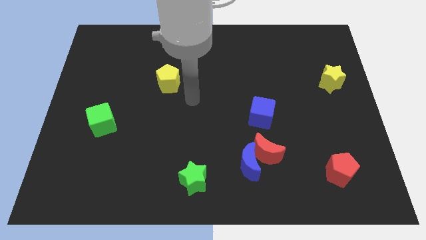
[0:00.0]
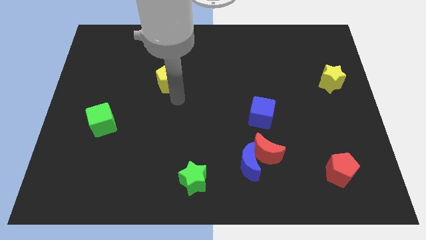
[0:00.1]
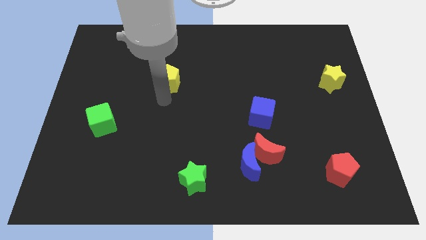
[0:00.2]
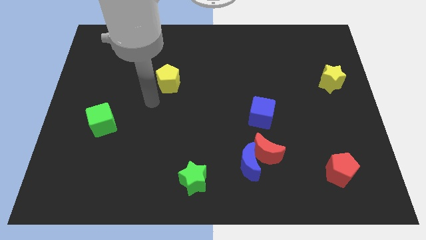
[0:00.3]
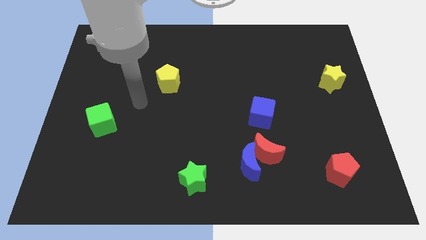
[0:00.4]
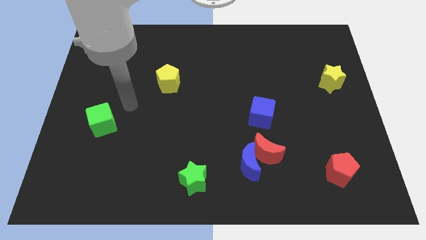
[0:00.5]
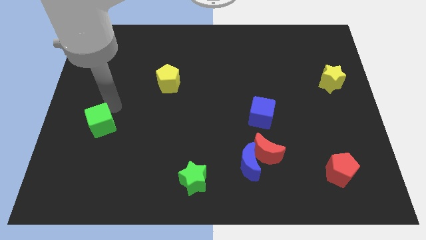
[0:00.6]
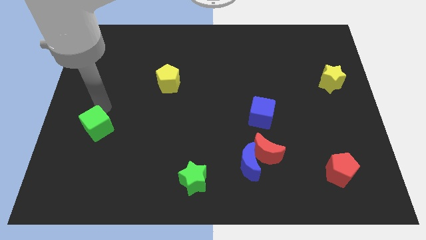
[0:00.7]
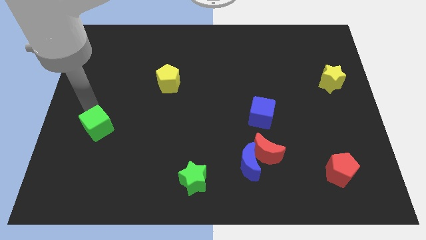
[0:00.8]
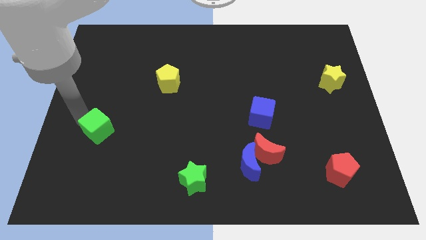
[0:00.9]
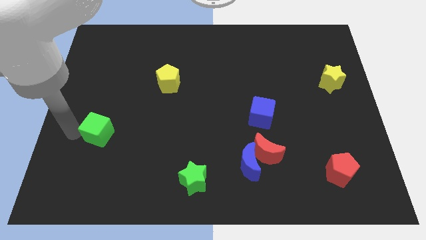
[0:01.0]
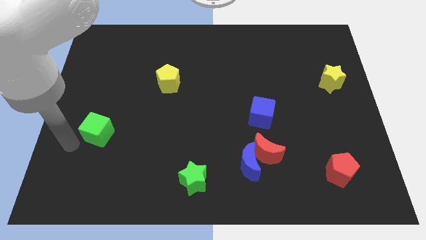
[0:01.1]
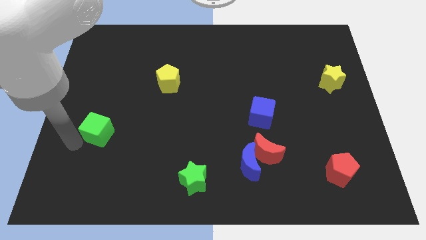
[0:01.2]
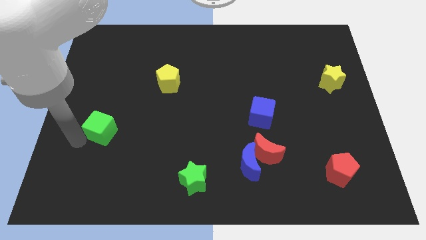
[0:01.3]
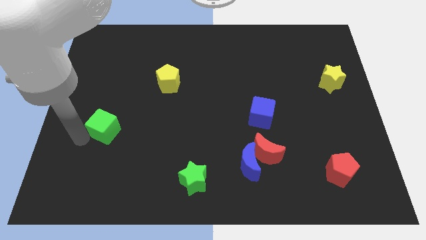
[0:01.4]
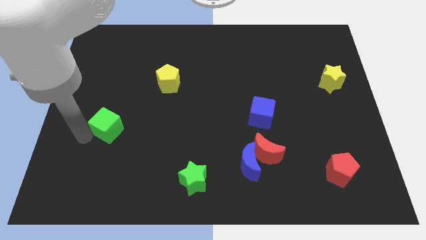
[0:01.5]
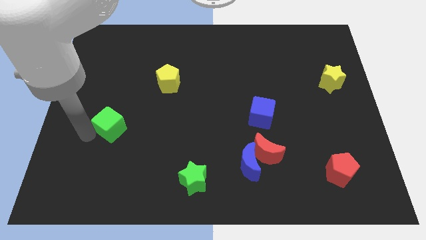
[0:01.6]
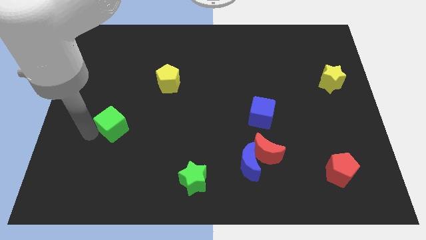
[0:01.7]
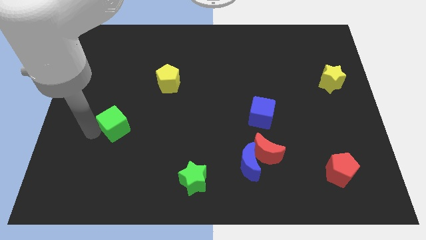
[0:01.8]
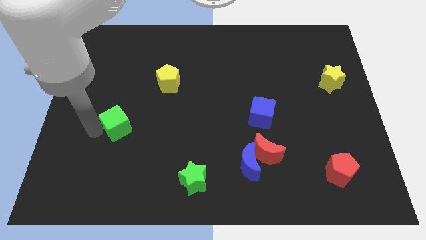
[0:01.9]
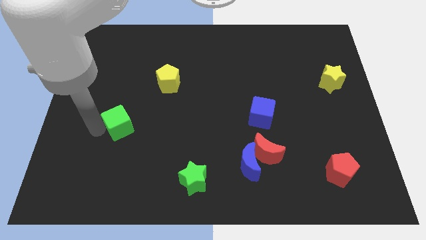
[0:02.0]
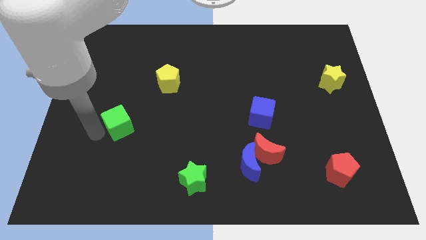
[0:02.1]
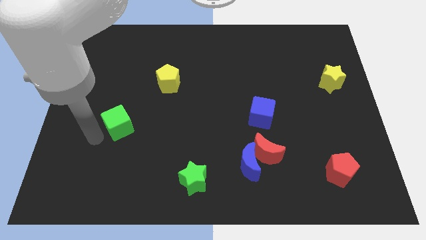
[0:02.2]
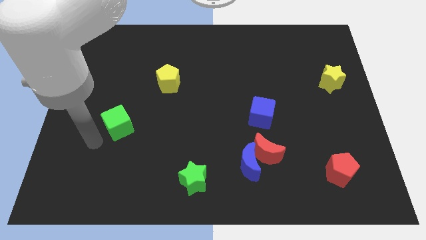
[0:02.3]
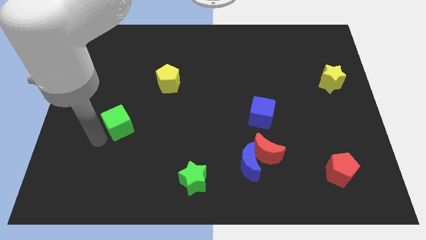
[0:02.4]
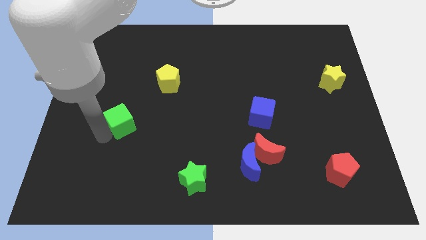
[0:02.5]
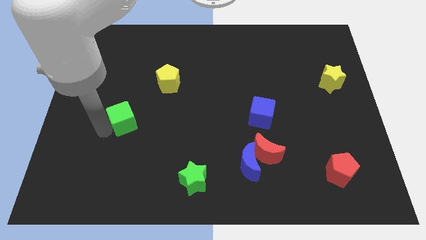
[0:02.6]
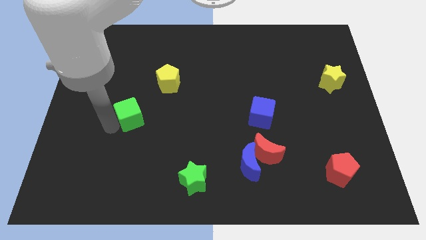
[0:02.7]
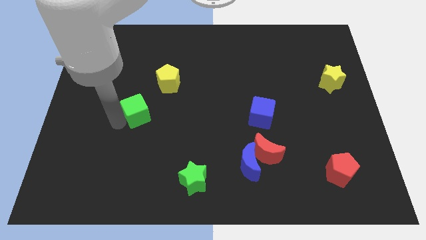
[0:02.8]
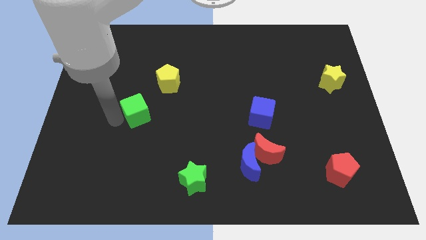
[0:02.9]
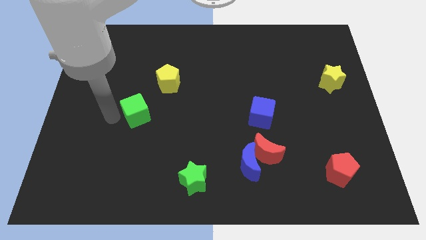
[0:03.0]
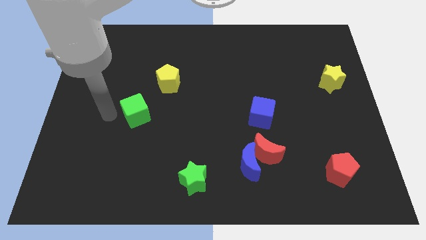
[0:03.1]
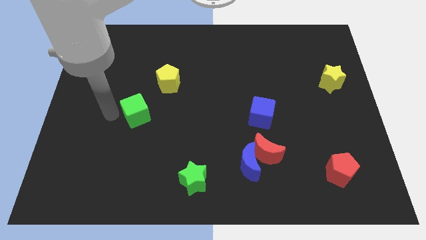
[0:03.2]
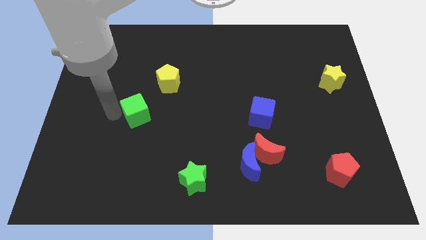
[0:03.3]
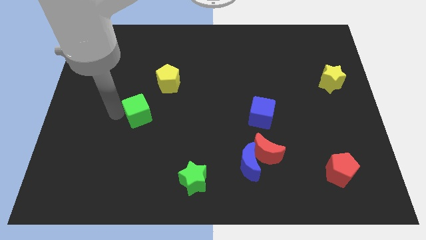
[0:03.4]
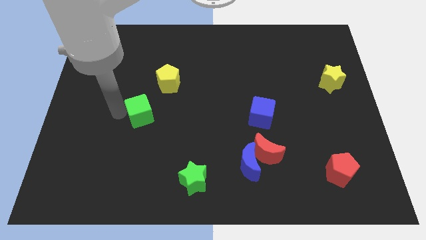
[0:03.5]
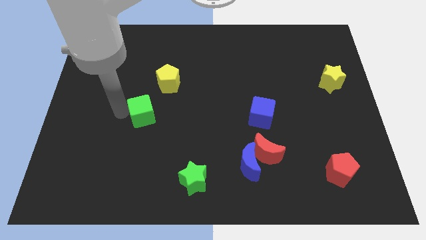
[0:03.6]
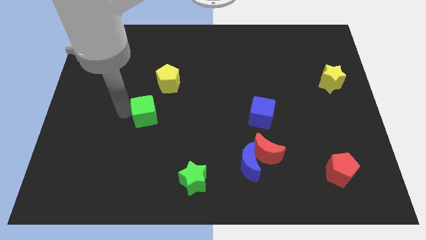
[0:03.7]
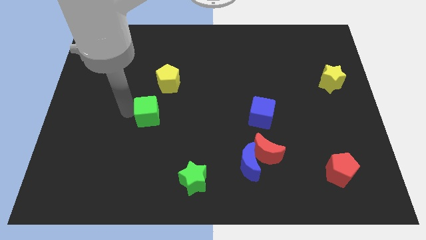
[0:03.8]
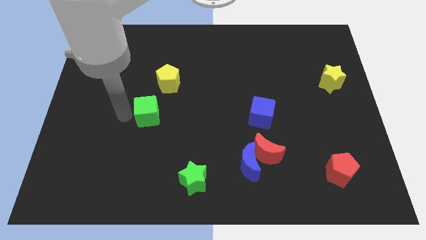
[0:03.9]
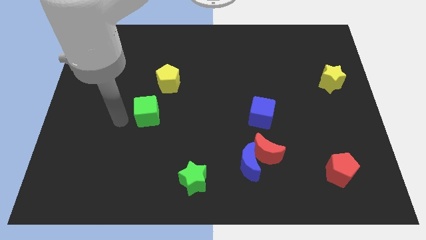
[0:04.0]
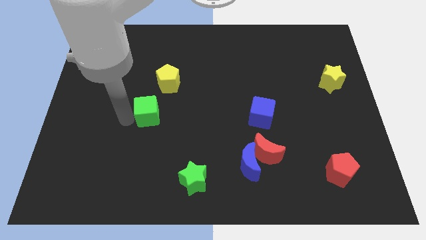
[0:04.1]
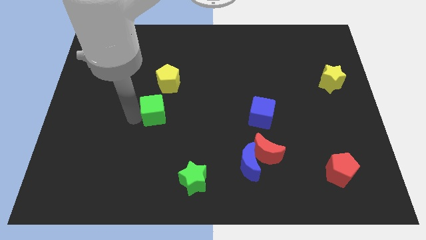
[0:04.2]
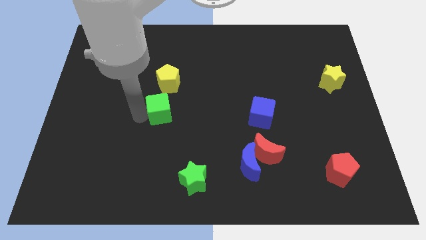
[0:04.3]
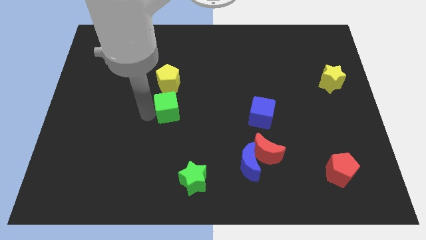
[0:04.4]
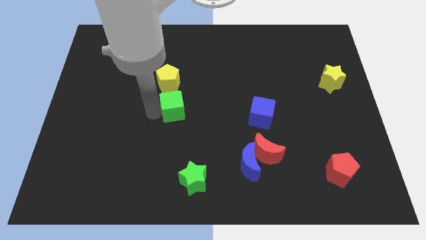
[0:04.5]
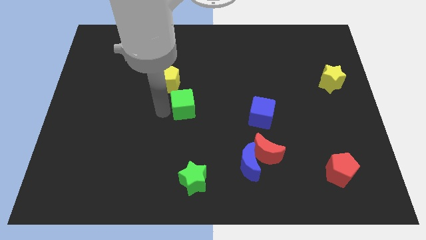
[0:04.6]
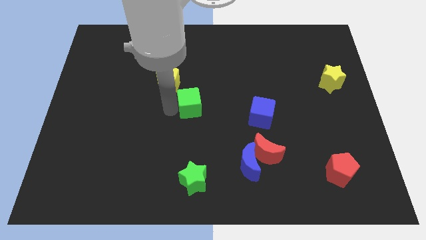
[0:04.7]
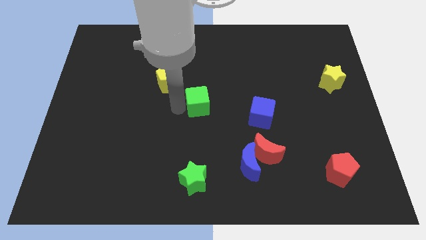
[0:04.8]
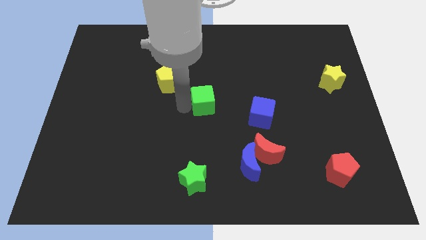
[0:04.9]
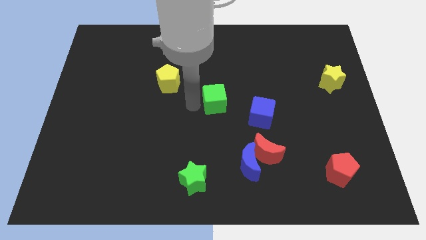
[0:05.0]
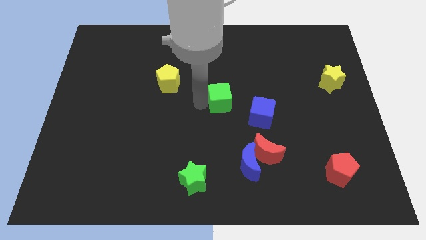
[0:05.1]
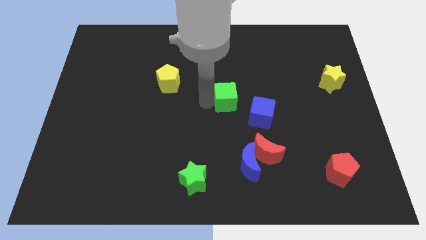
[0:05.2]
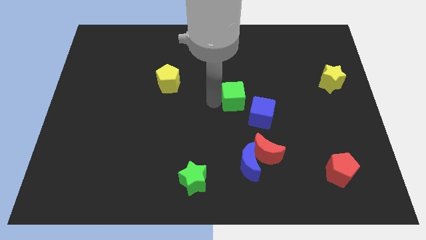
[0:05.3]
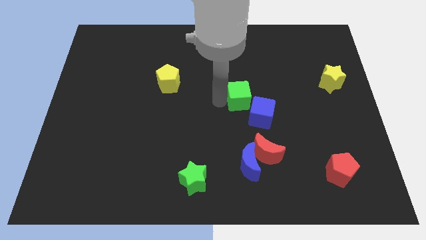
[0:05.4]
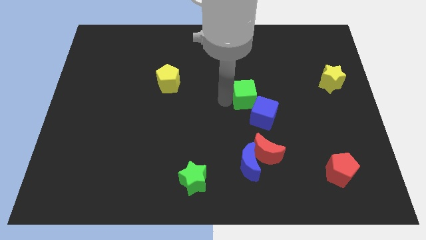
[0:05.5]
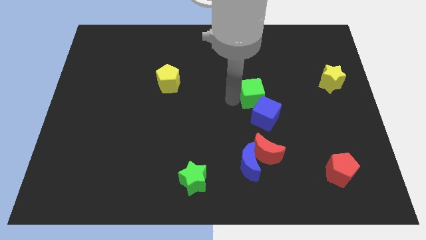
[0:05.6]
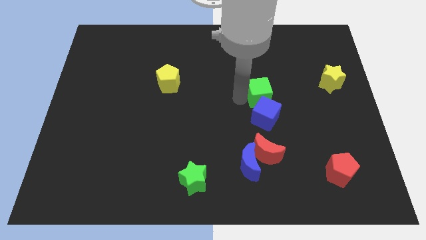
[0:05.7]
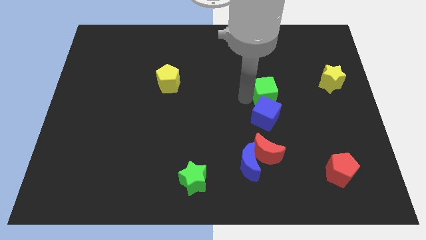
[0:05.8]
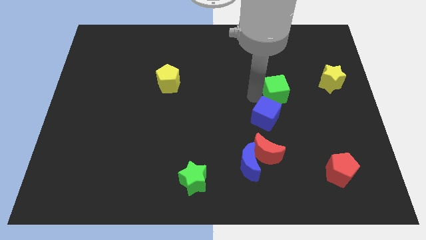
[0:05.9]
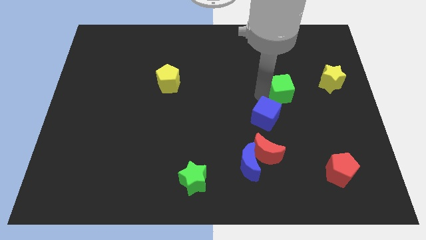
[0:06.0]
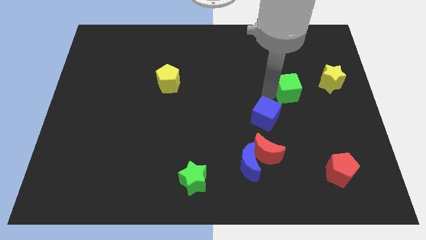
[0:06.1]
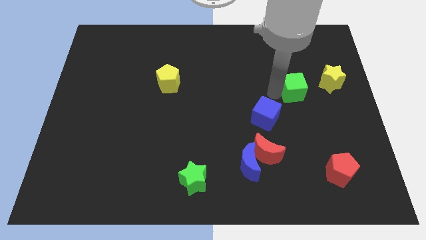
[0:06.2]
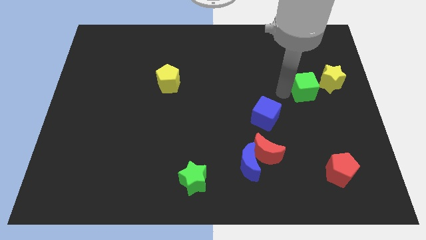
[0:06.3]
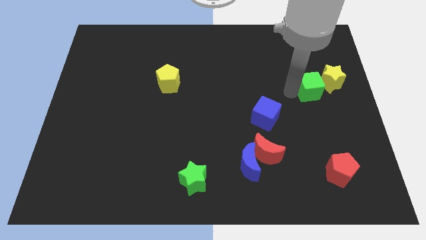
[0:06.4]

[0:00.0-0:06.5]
put the green cube next to the yellow star
